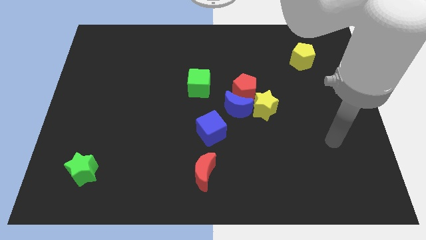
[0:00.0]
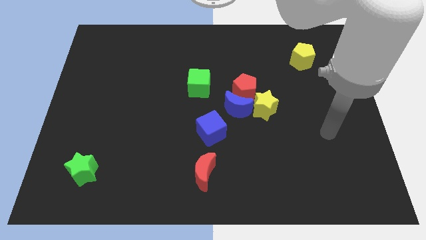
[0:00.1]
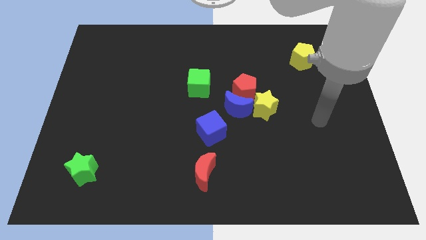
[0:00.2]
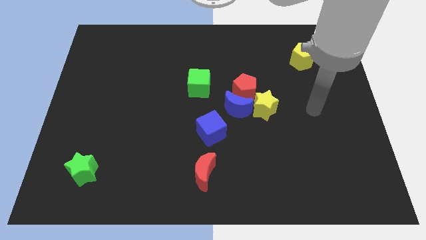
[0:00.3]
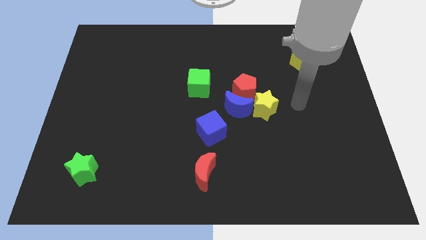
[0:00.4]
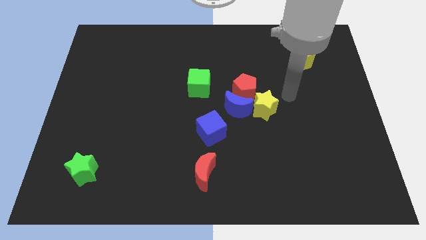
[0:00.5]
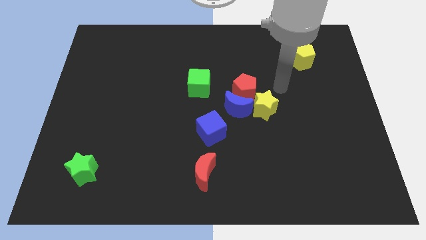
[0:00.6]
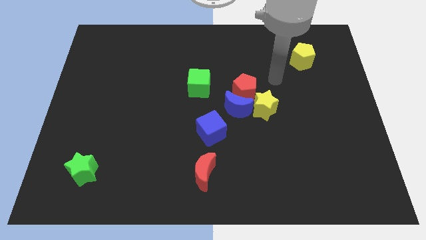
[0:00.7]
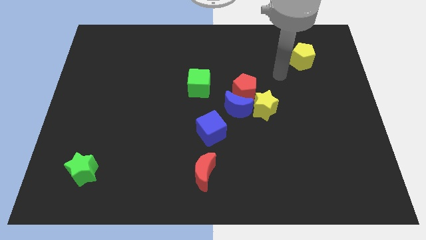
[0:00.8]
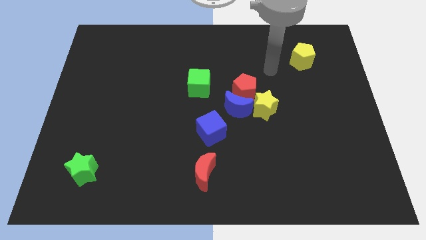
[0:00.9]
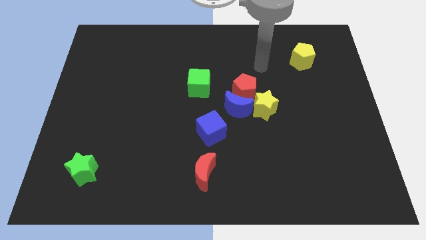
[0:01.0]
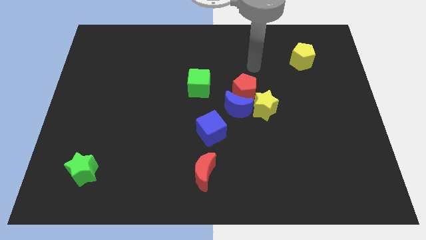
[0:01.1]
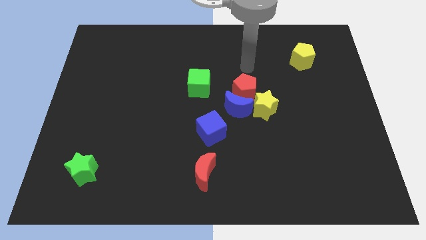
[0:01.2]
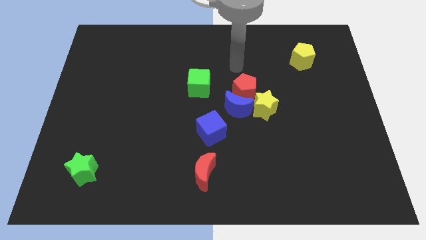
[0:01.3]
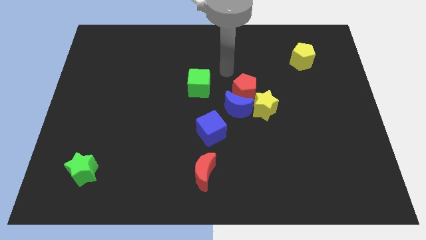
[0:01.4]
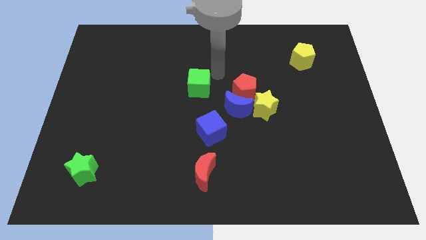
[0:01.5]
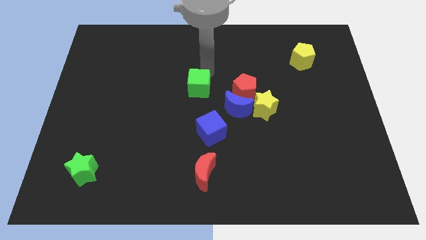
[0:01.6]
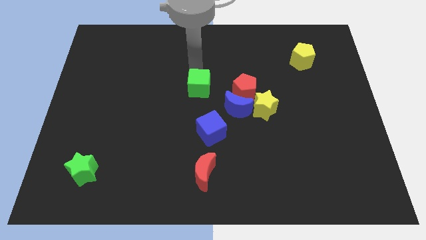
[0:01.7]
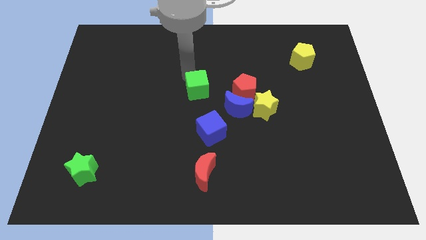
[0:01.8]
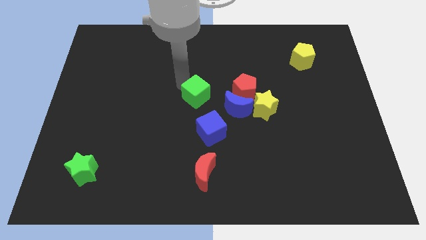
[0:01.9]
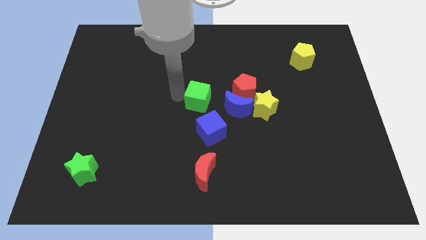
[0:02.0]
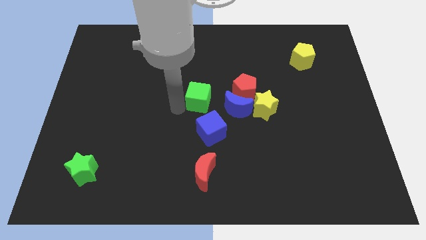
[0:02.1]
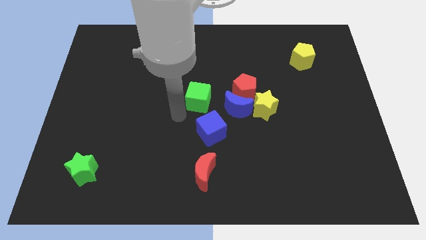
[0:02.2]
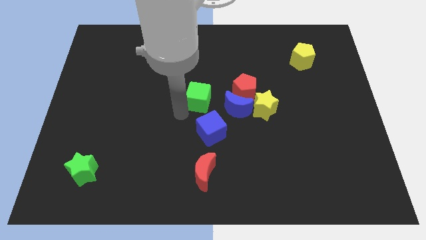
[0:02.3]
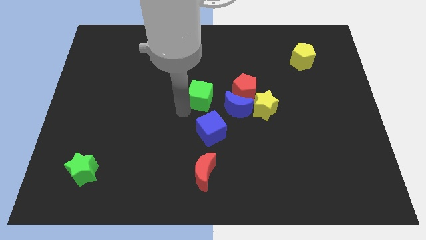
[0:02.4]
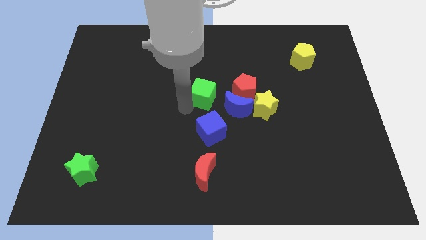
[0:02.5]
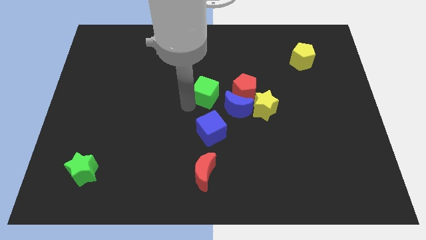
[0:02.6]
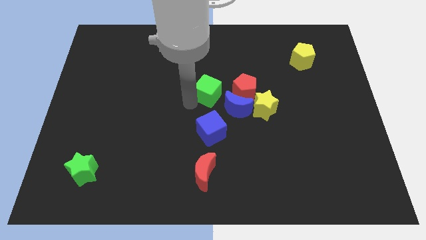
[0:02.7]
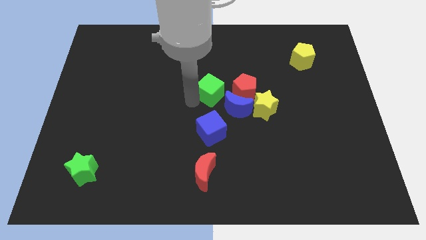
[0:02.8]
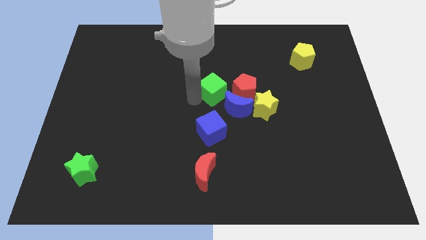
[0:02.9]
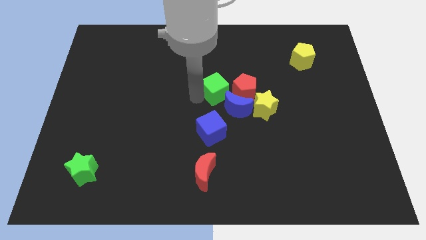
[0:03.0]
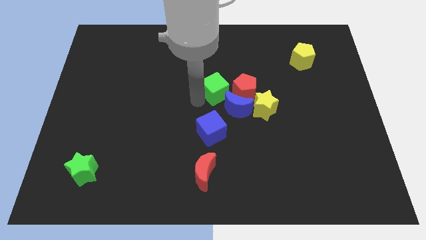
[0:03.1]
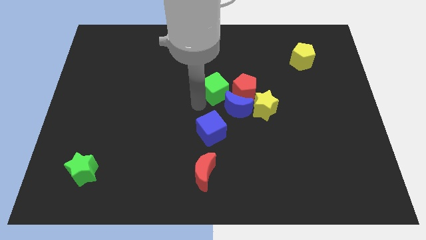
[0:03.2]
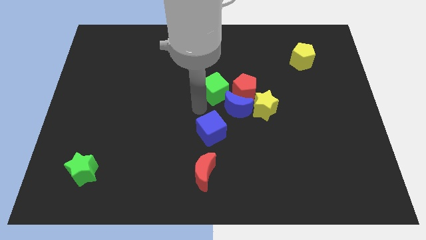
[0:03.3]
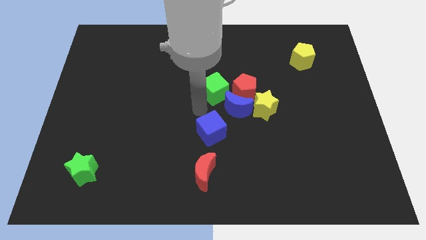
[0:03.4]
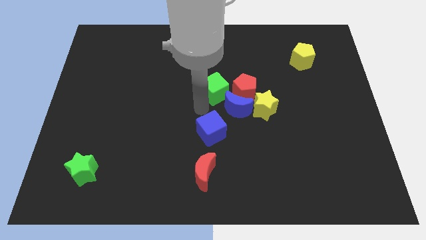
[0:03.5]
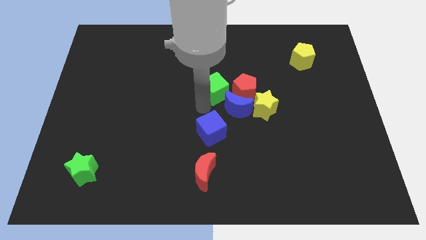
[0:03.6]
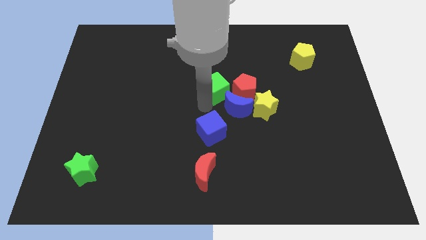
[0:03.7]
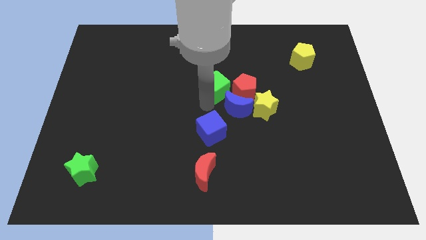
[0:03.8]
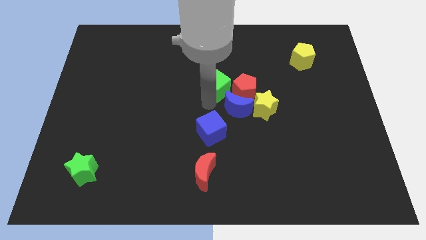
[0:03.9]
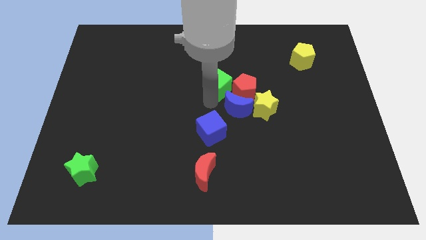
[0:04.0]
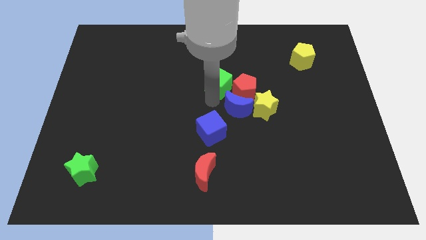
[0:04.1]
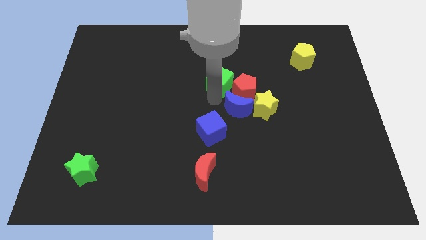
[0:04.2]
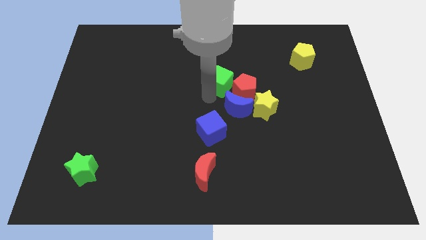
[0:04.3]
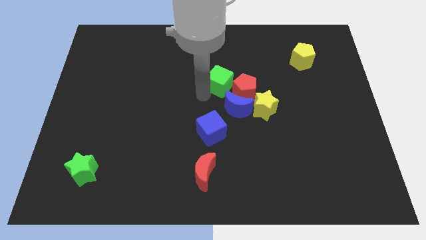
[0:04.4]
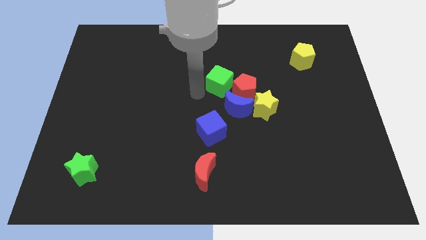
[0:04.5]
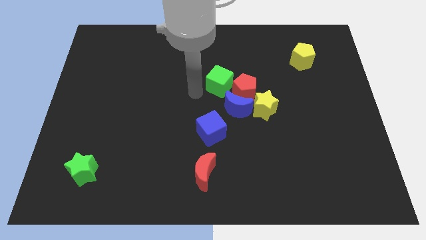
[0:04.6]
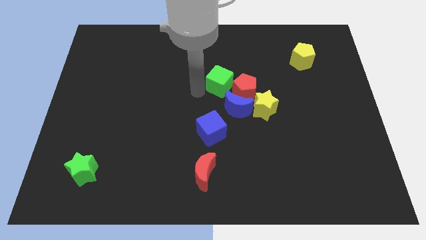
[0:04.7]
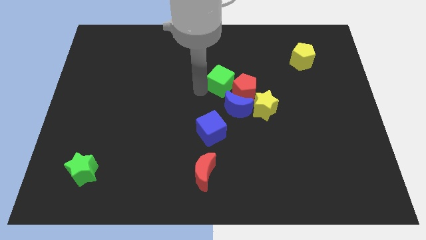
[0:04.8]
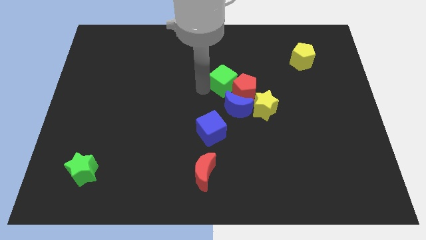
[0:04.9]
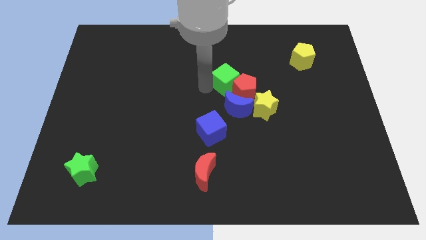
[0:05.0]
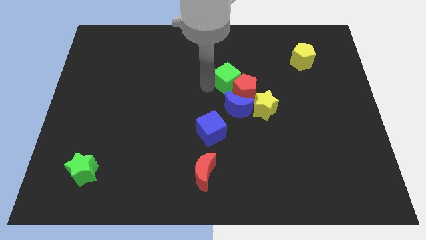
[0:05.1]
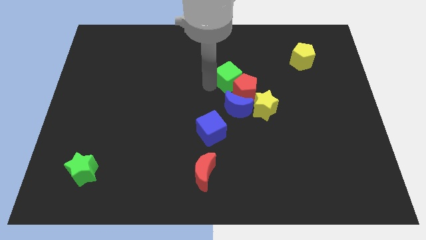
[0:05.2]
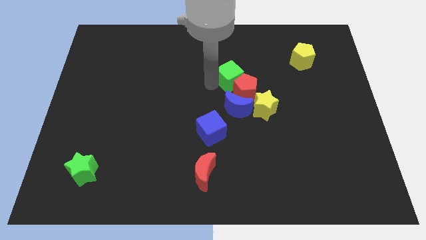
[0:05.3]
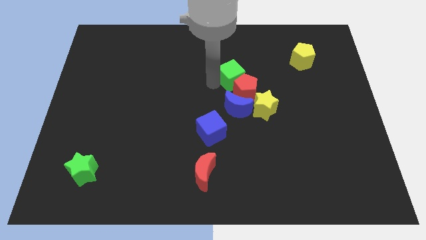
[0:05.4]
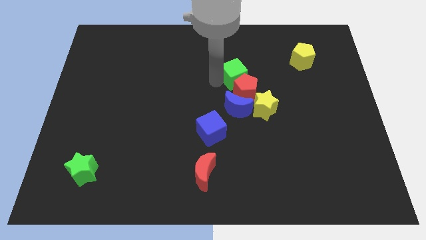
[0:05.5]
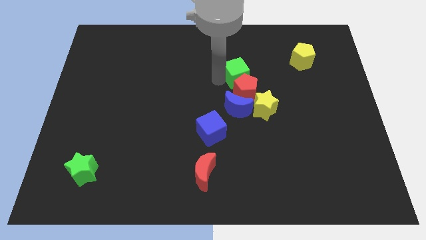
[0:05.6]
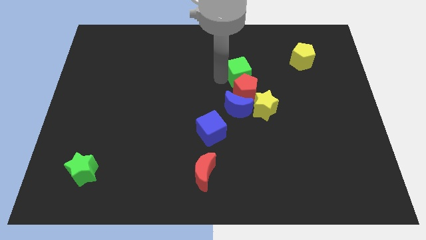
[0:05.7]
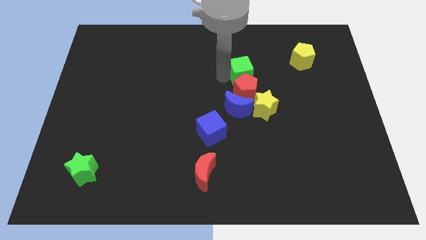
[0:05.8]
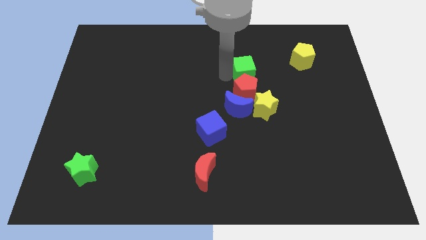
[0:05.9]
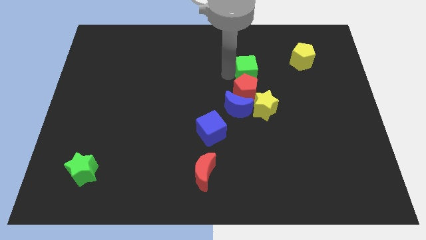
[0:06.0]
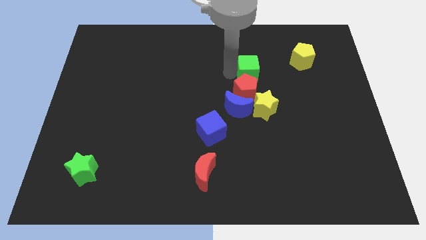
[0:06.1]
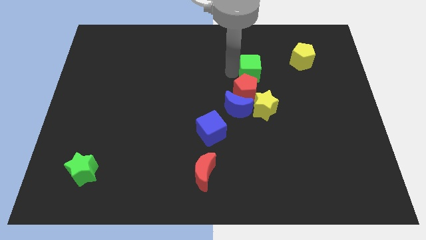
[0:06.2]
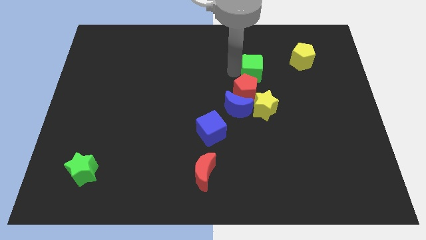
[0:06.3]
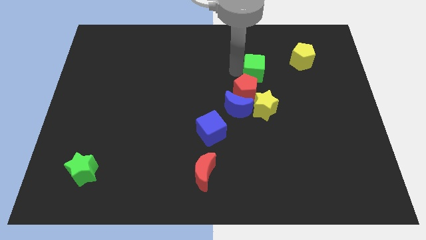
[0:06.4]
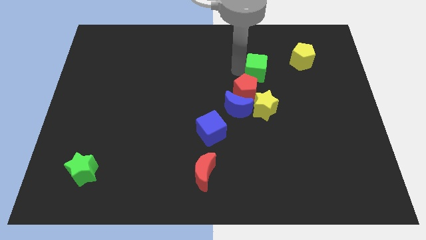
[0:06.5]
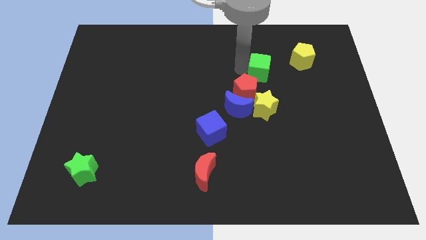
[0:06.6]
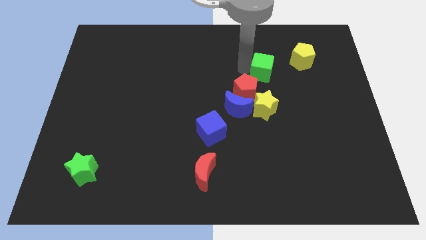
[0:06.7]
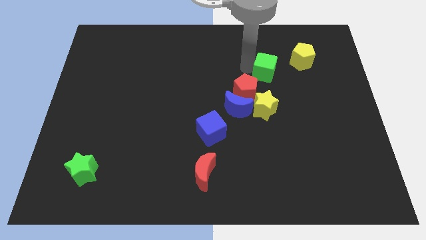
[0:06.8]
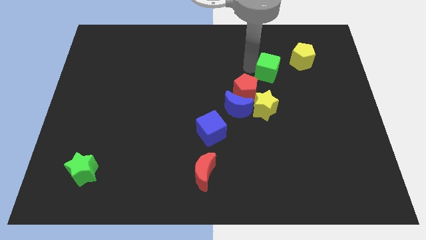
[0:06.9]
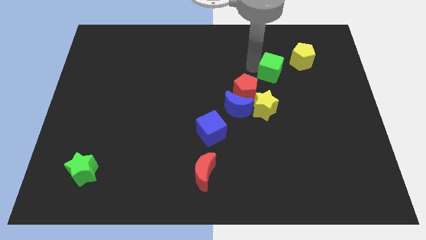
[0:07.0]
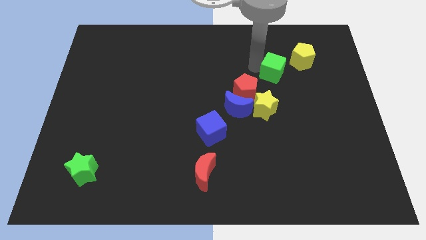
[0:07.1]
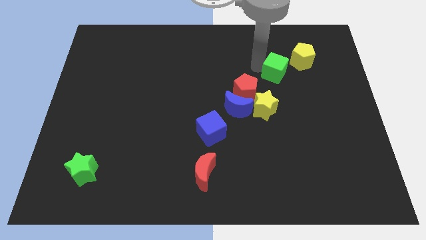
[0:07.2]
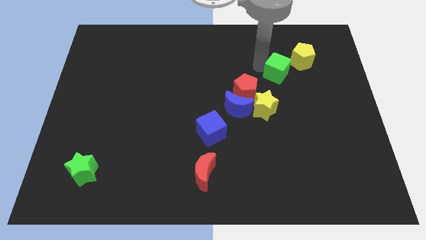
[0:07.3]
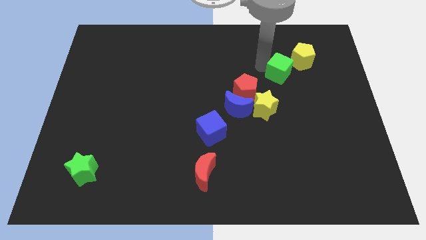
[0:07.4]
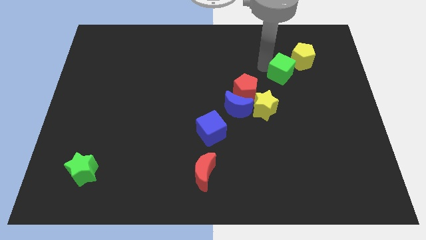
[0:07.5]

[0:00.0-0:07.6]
slide the green cube right

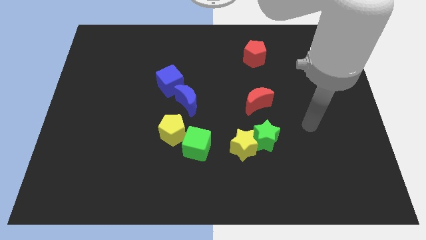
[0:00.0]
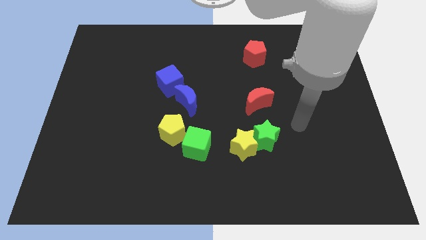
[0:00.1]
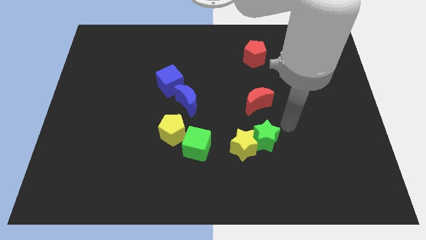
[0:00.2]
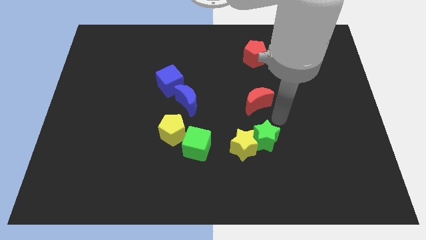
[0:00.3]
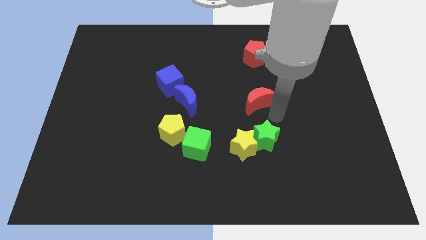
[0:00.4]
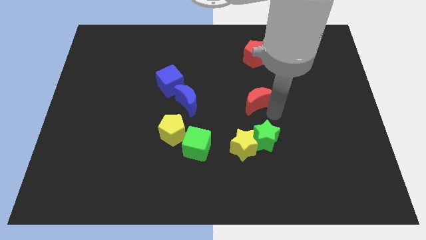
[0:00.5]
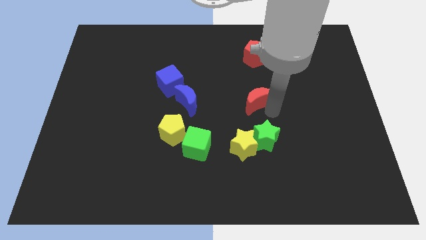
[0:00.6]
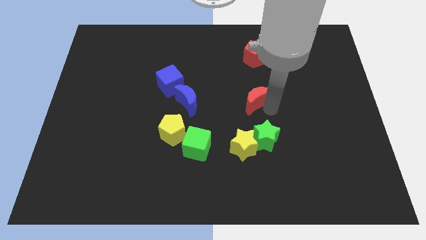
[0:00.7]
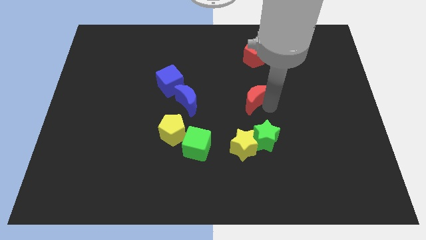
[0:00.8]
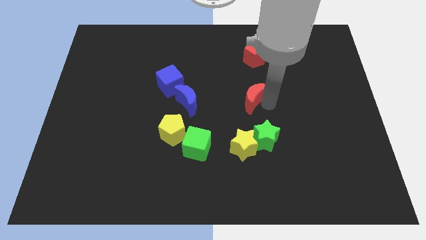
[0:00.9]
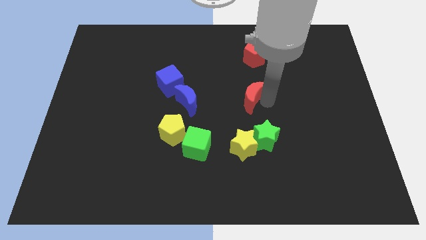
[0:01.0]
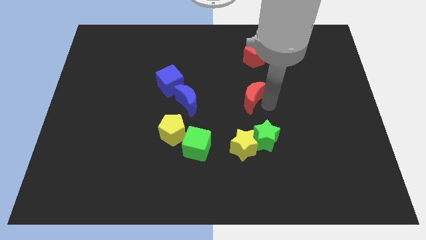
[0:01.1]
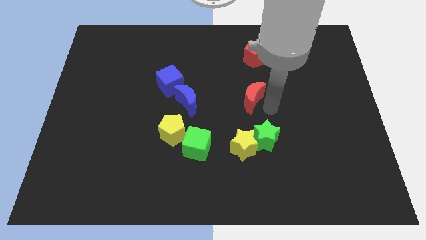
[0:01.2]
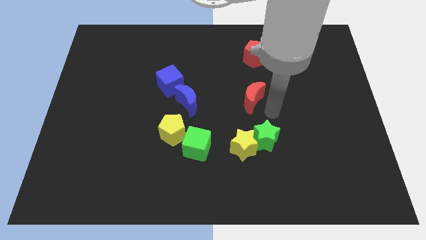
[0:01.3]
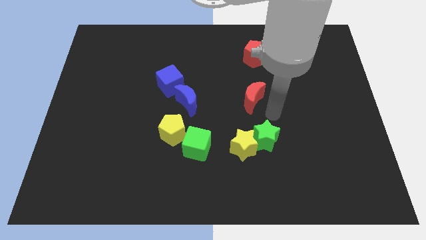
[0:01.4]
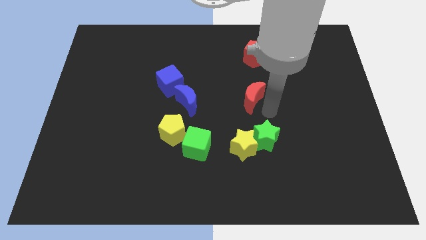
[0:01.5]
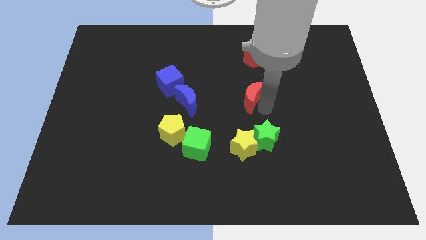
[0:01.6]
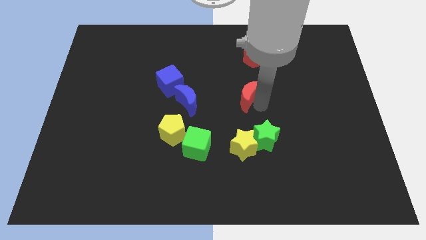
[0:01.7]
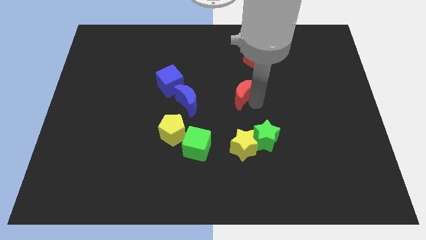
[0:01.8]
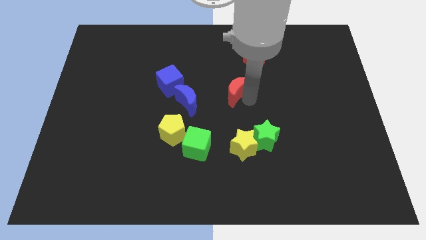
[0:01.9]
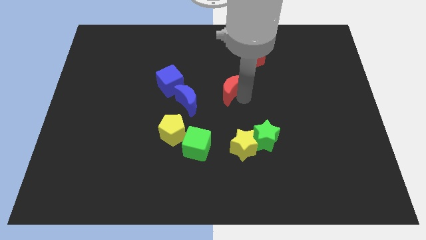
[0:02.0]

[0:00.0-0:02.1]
move the red moon slightly diagonally upwards and left
